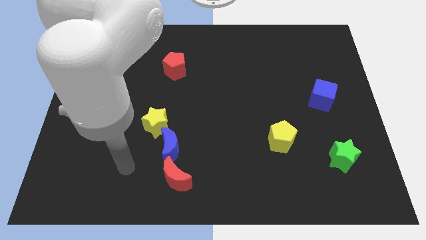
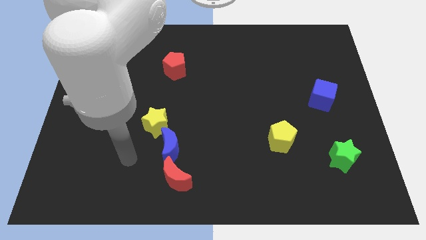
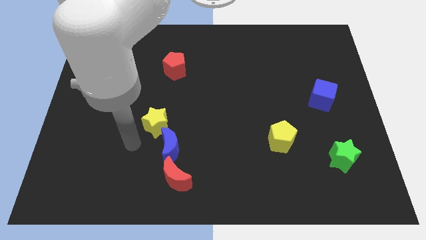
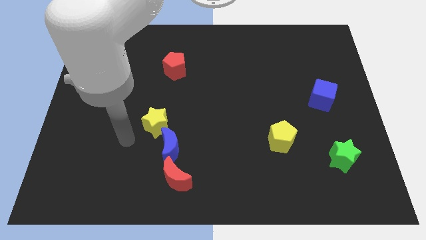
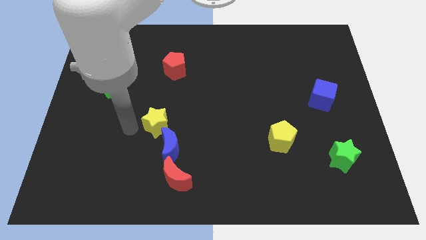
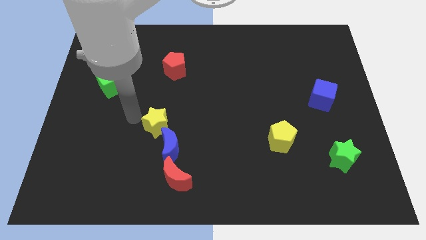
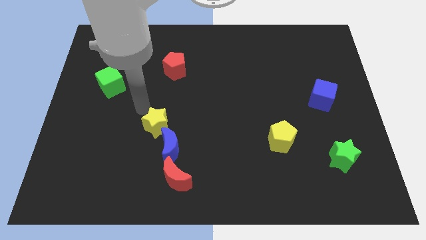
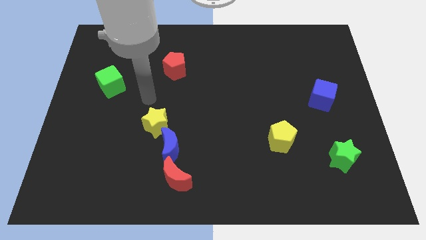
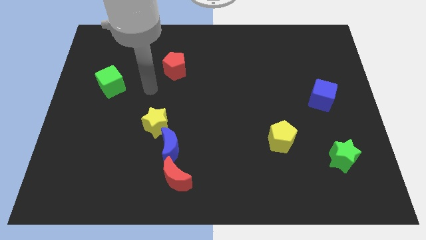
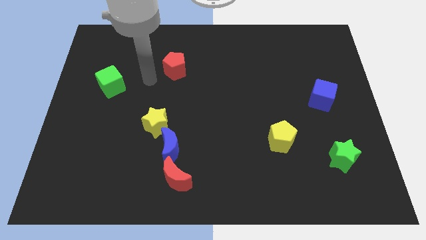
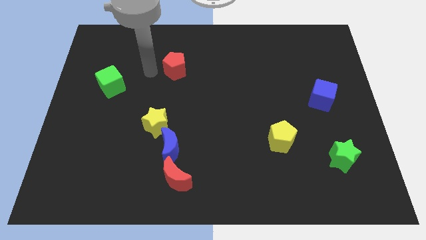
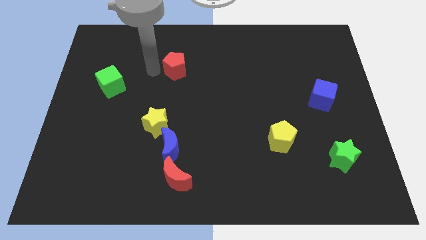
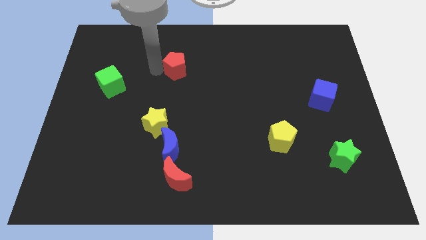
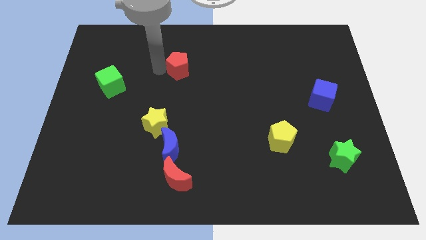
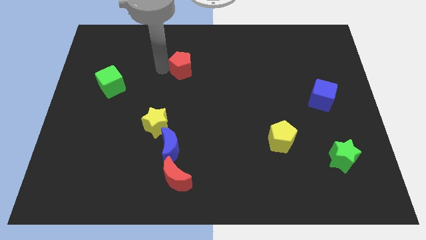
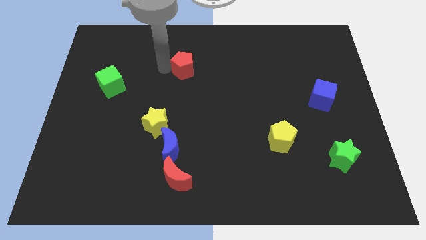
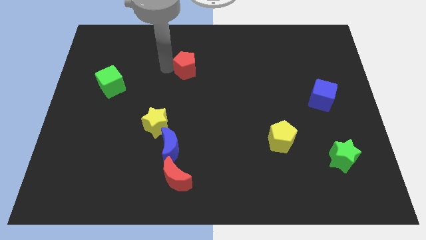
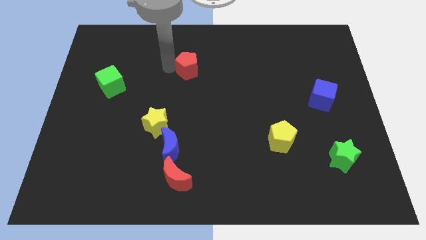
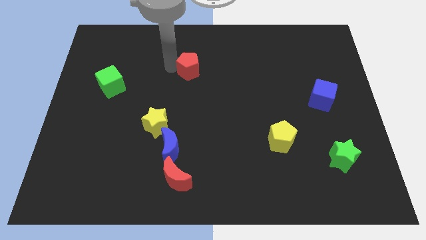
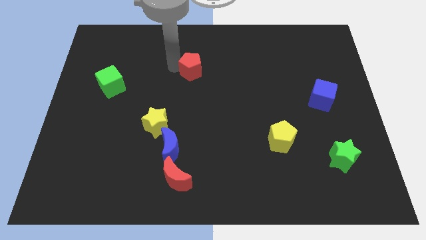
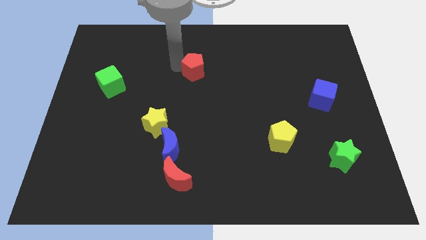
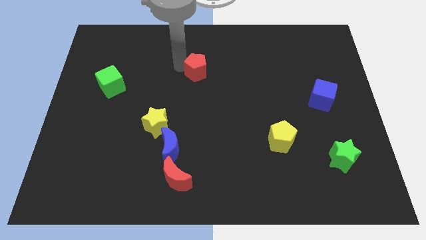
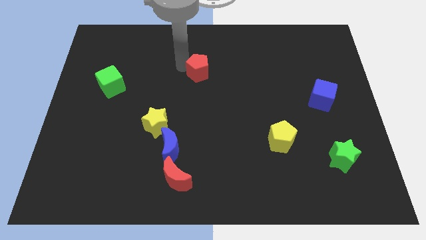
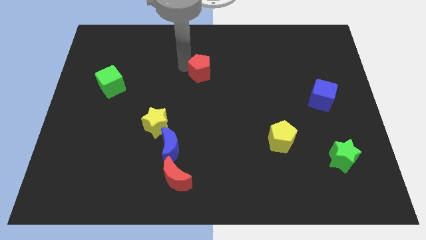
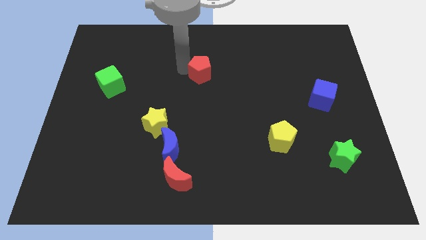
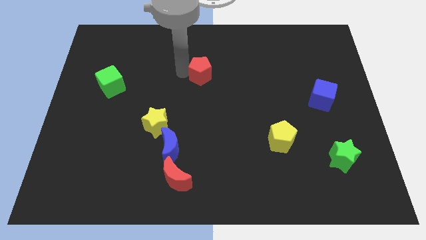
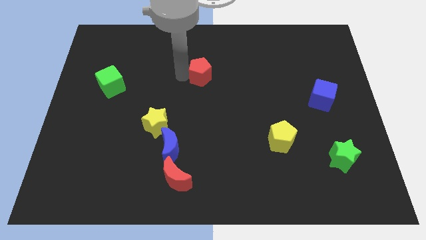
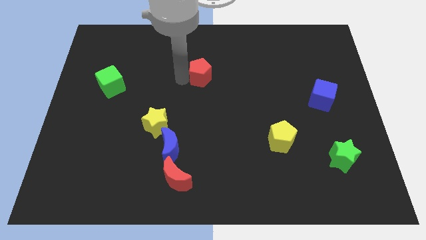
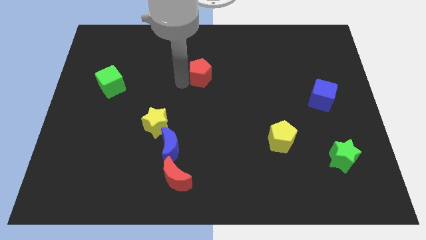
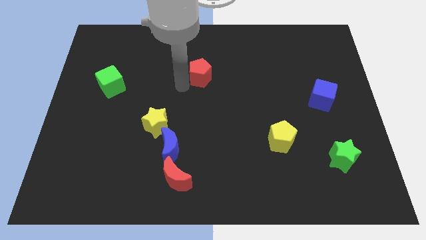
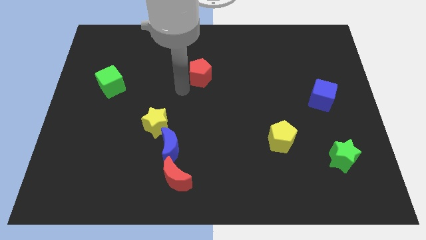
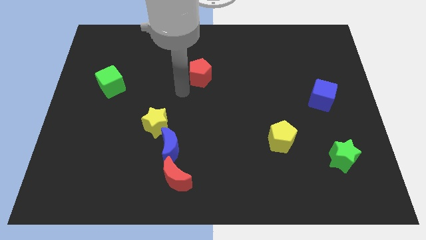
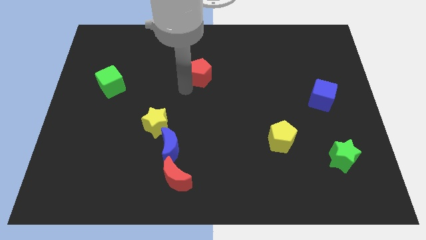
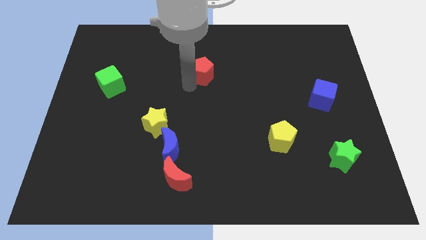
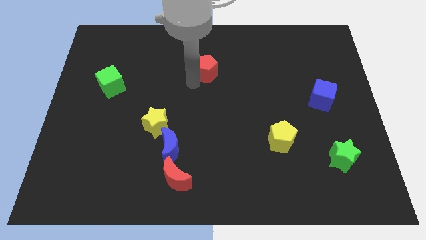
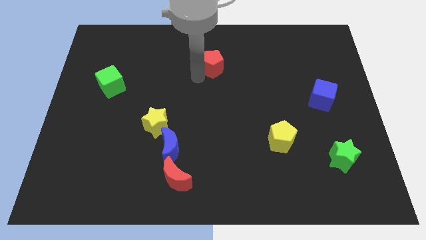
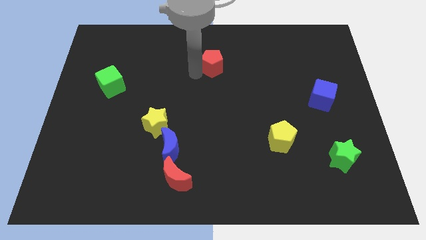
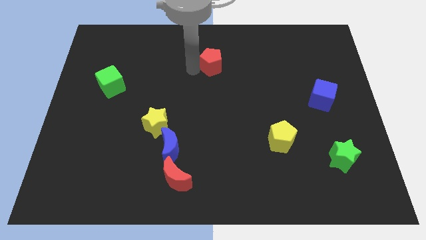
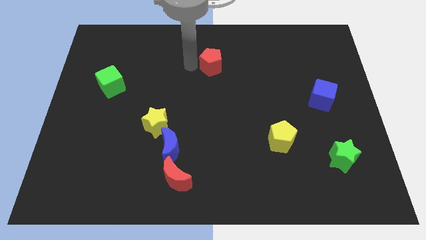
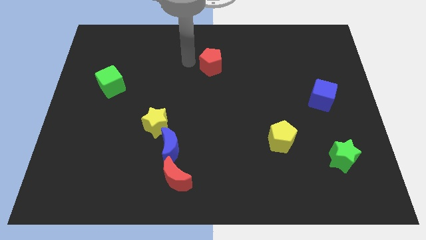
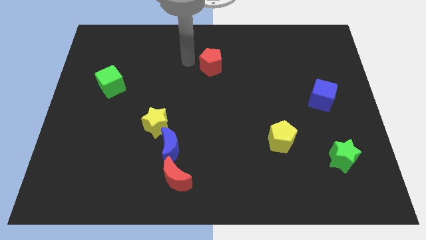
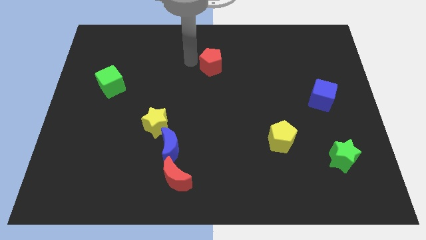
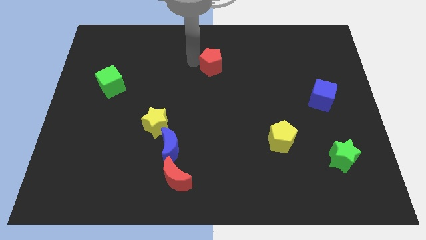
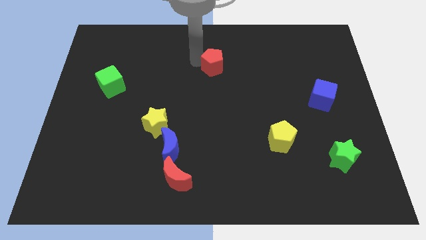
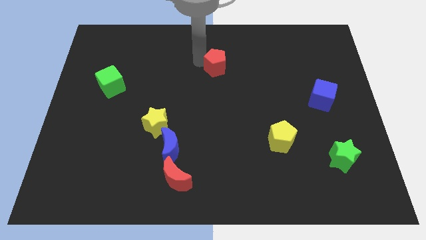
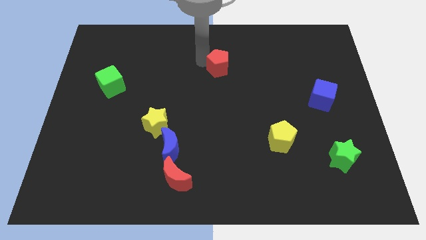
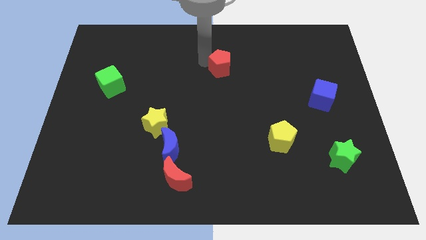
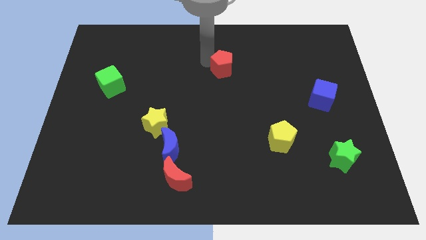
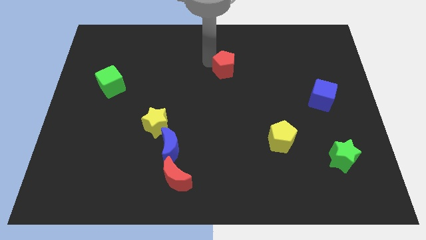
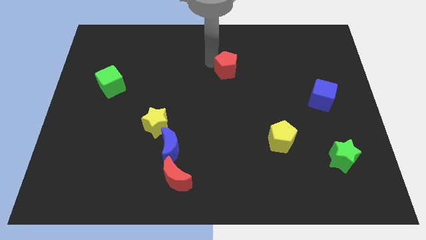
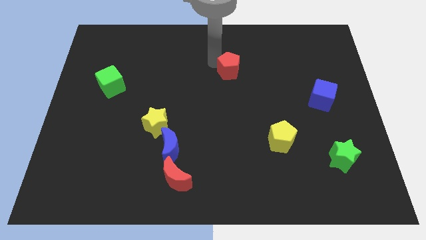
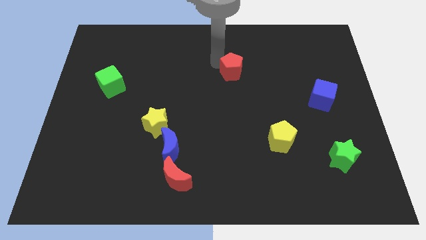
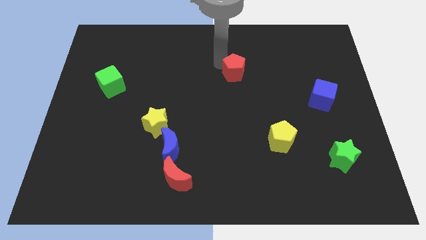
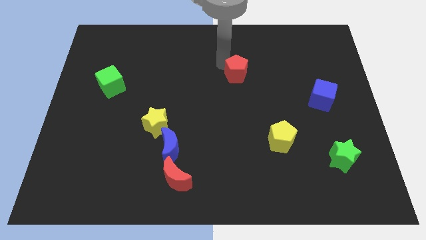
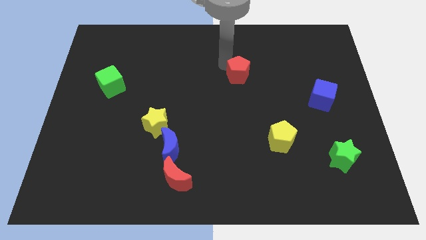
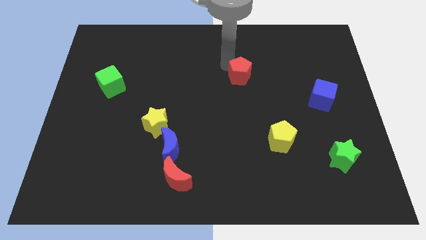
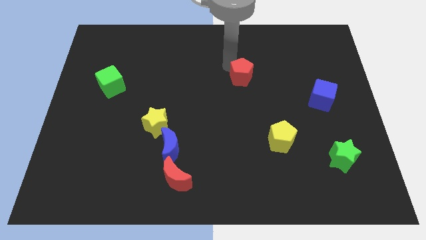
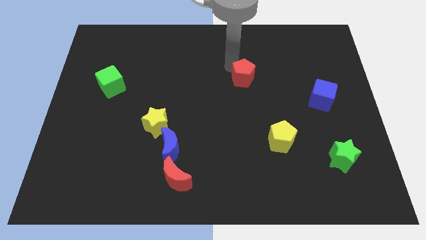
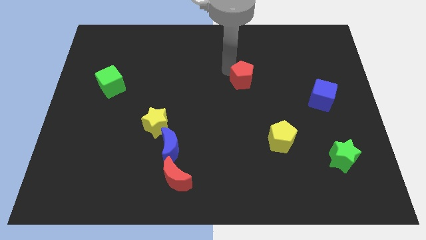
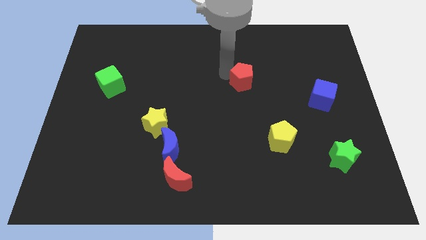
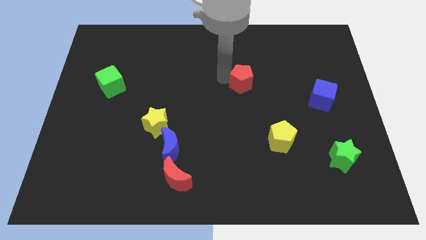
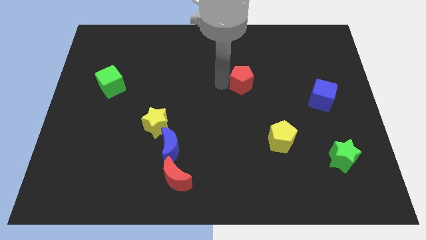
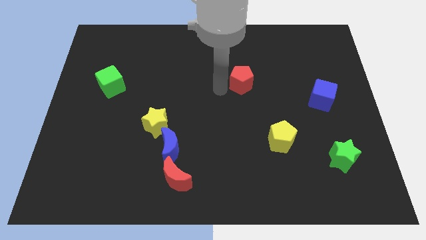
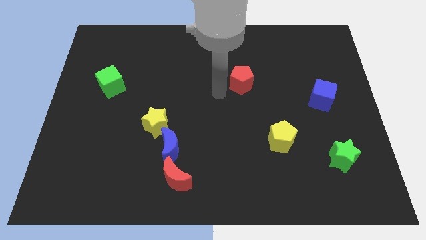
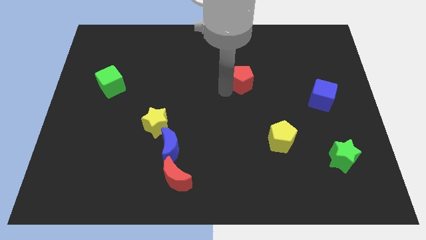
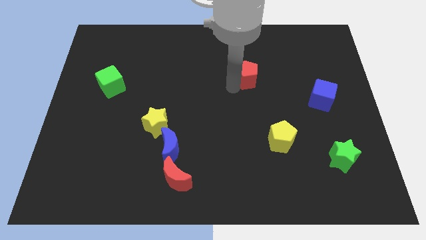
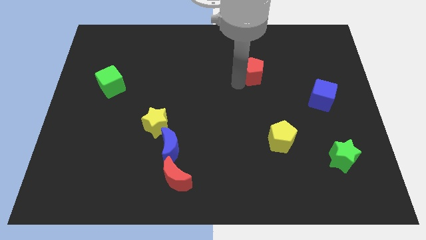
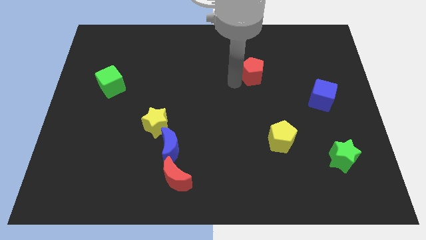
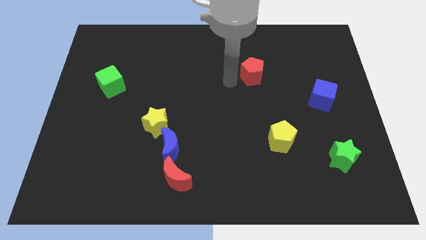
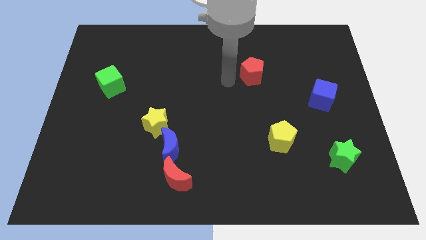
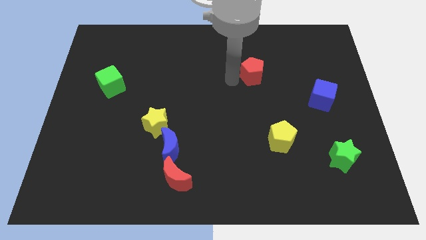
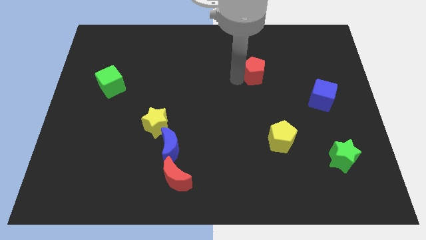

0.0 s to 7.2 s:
push the red pentagon right

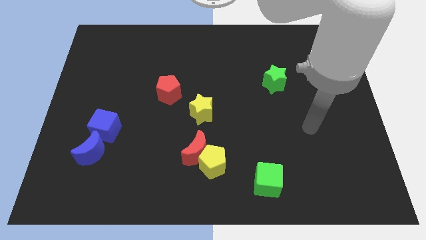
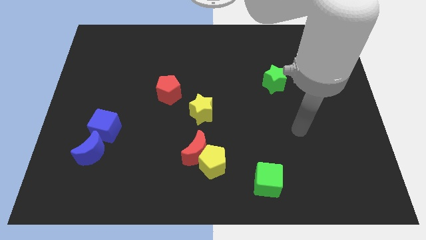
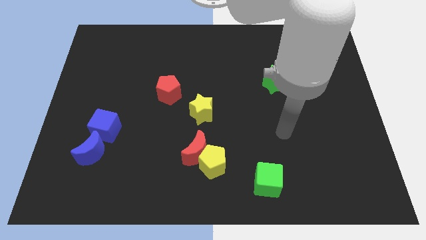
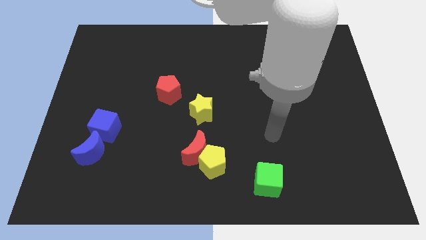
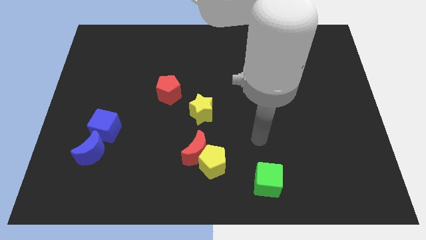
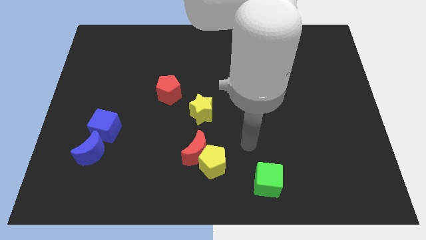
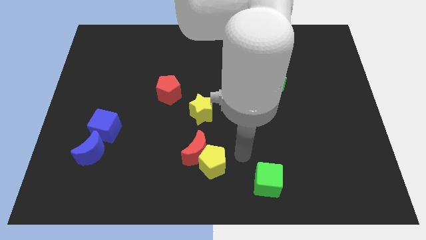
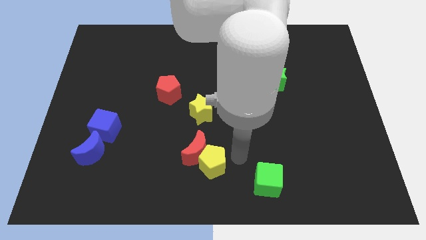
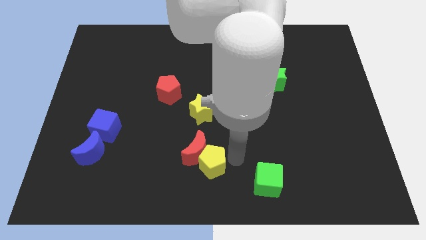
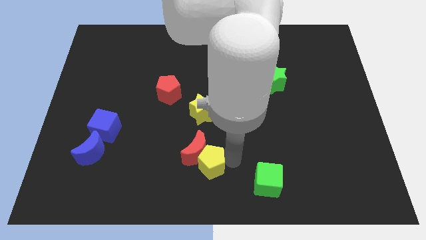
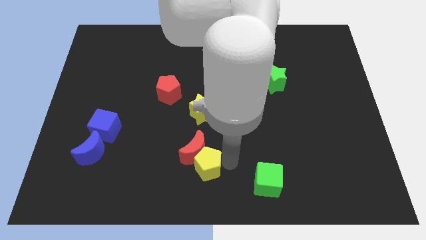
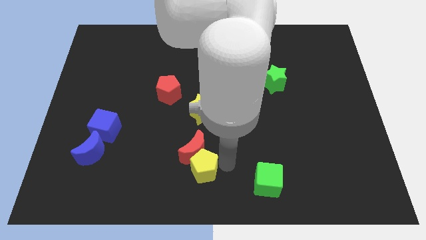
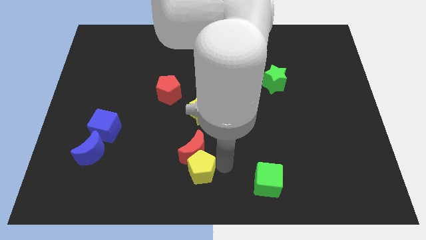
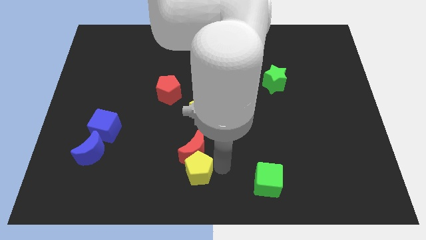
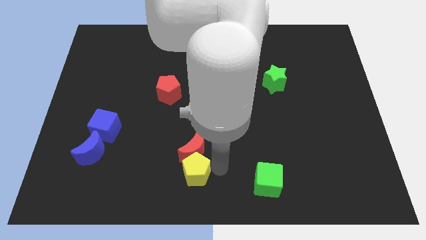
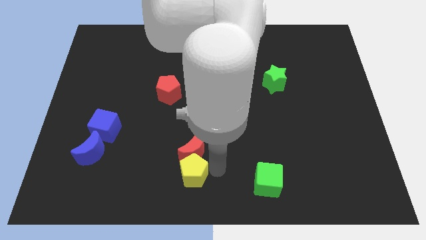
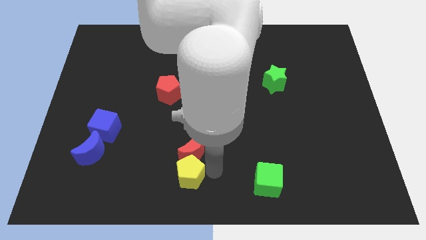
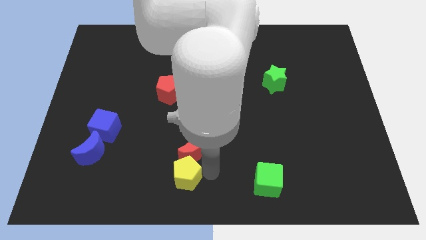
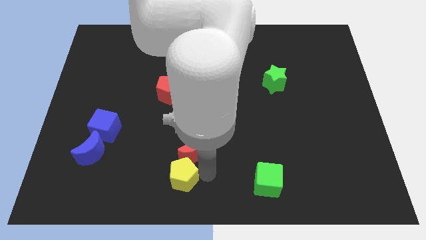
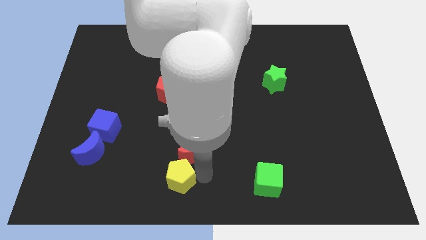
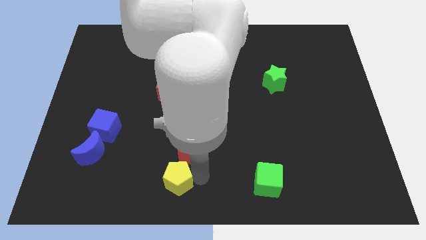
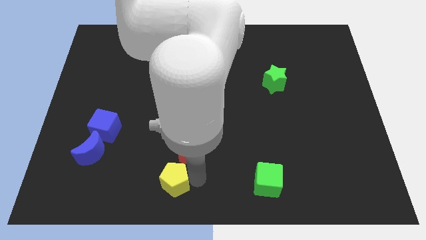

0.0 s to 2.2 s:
slightly push the yellow pentagon to the left
